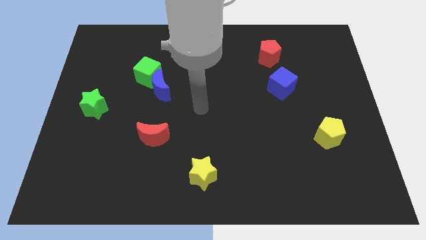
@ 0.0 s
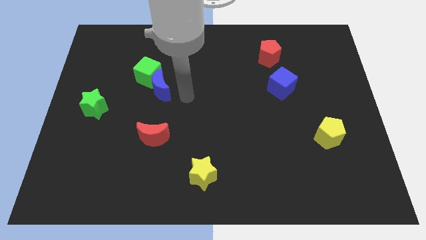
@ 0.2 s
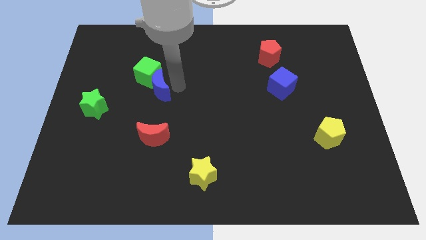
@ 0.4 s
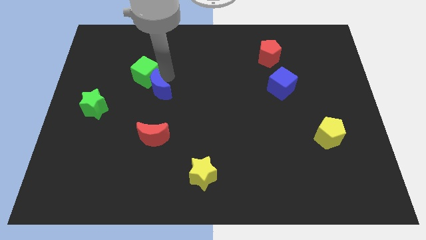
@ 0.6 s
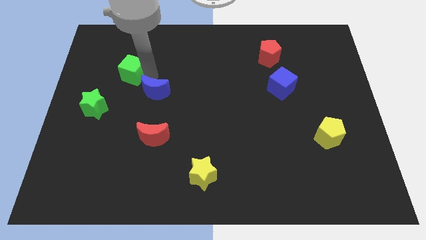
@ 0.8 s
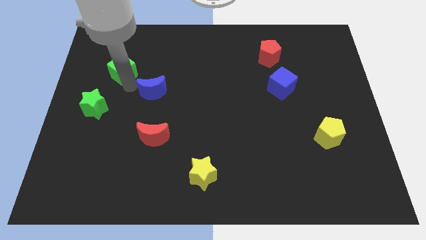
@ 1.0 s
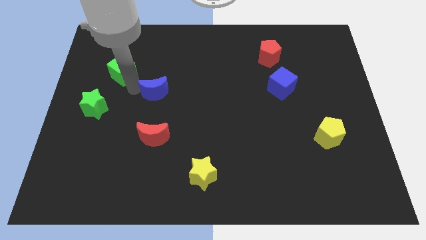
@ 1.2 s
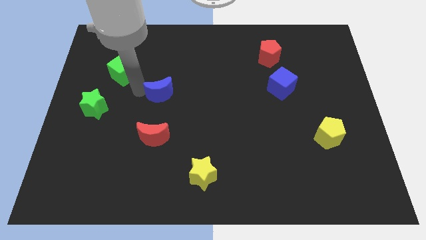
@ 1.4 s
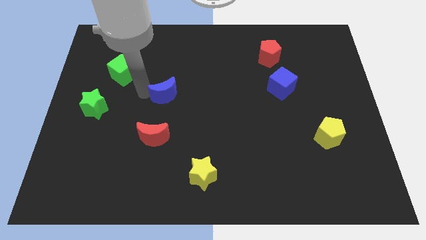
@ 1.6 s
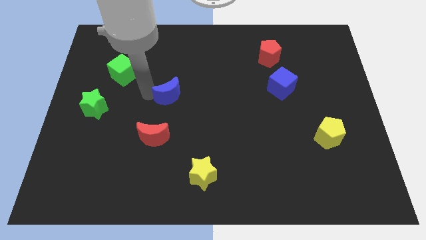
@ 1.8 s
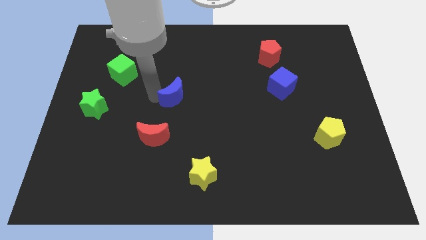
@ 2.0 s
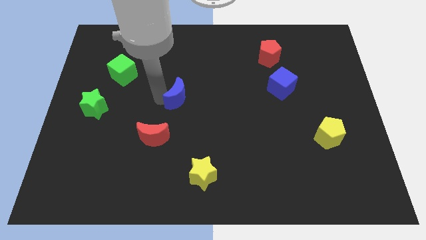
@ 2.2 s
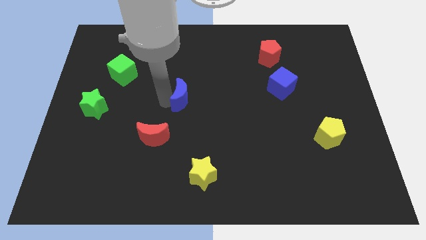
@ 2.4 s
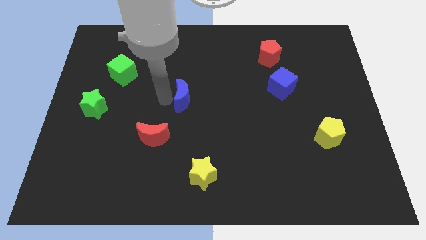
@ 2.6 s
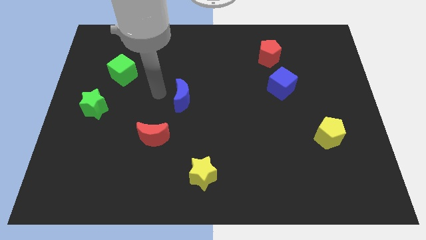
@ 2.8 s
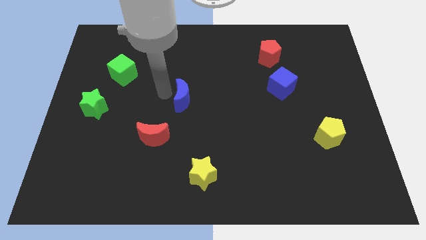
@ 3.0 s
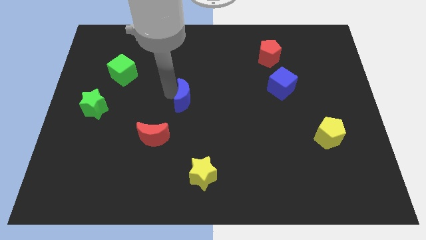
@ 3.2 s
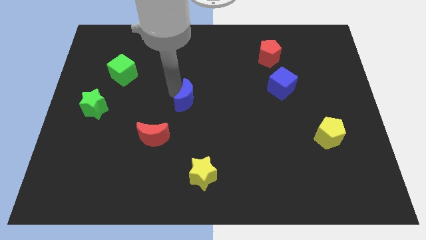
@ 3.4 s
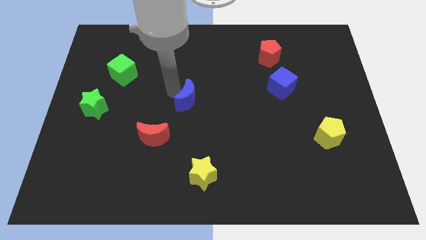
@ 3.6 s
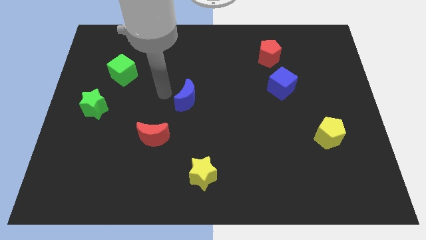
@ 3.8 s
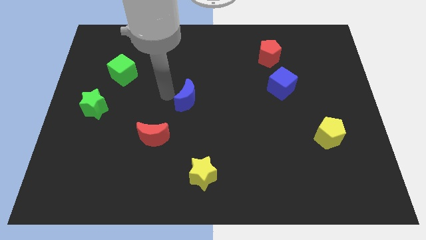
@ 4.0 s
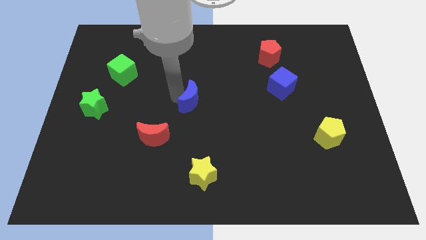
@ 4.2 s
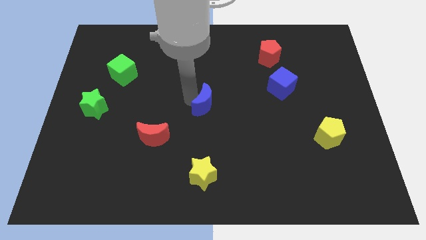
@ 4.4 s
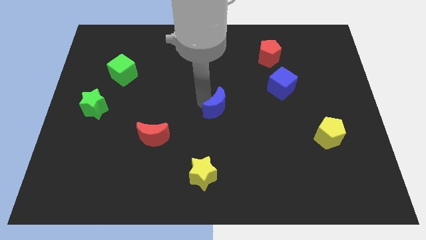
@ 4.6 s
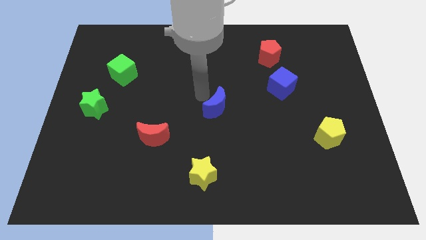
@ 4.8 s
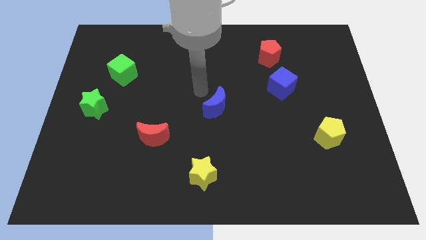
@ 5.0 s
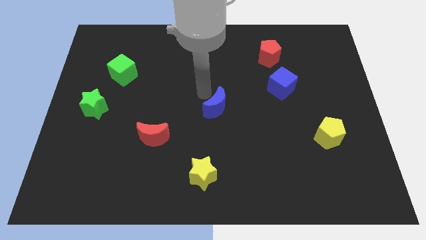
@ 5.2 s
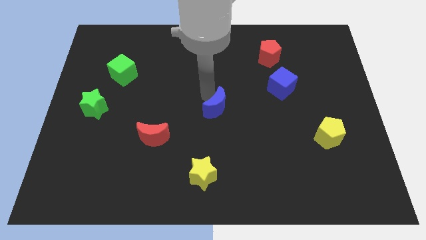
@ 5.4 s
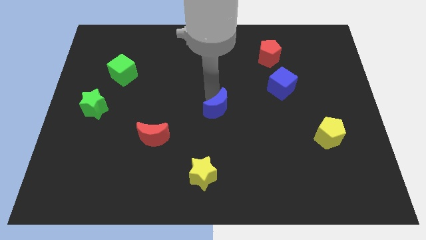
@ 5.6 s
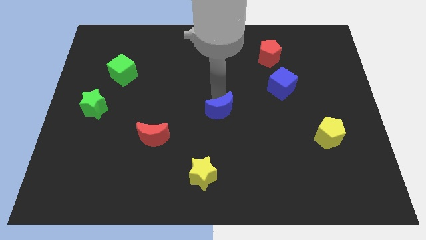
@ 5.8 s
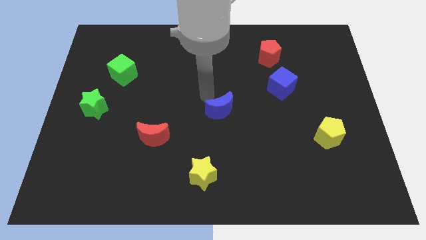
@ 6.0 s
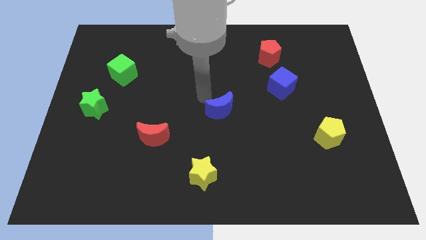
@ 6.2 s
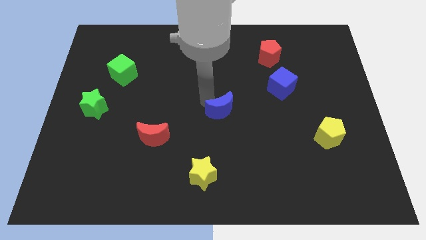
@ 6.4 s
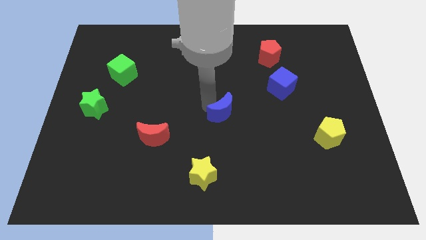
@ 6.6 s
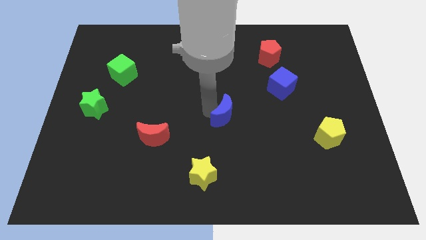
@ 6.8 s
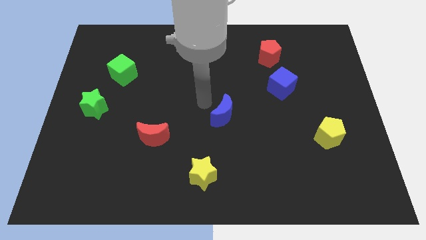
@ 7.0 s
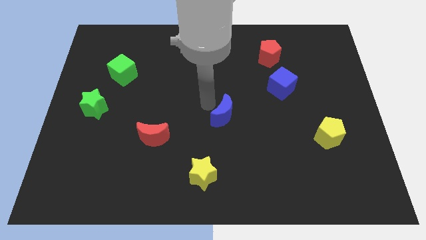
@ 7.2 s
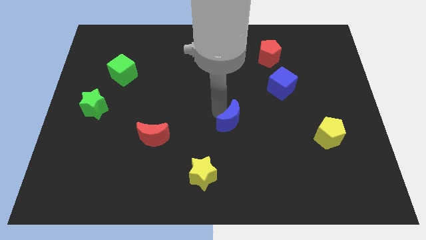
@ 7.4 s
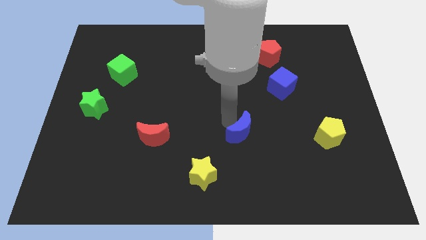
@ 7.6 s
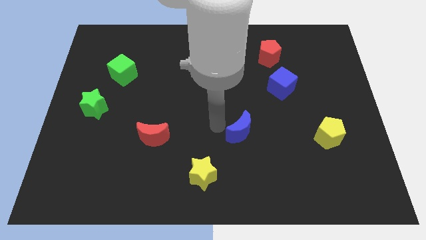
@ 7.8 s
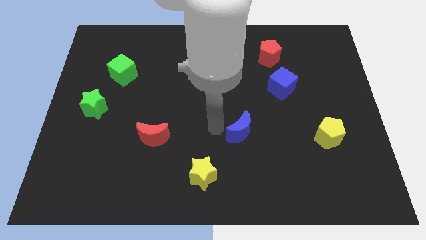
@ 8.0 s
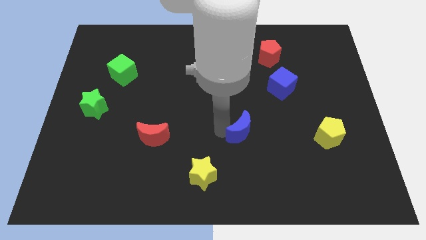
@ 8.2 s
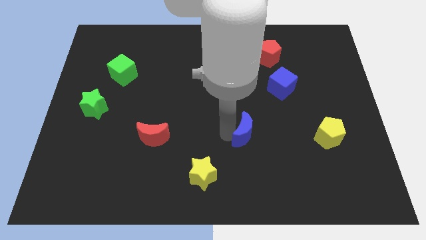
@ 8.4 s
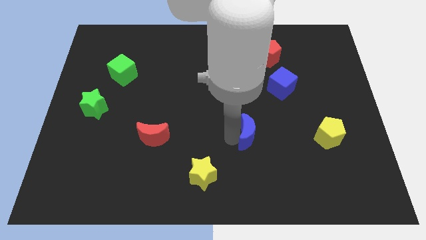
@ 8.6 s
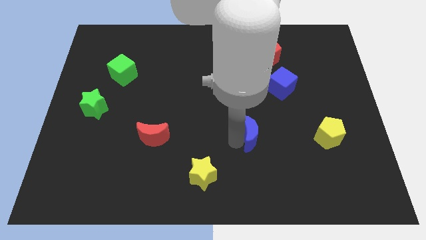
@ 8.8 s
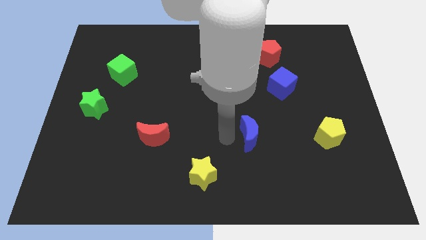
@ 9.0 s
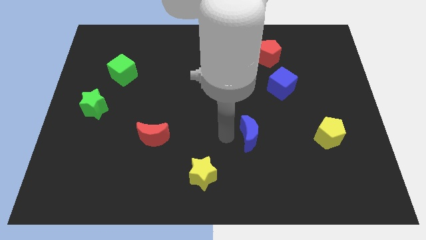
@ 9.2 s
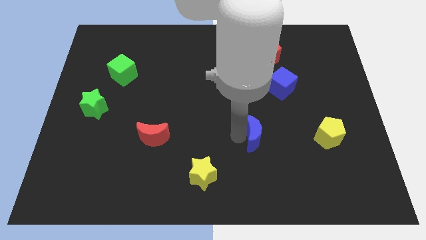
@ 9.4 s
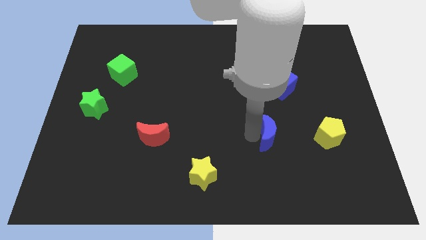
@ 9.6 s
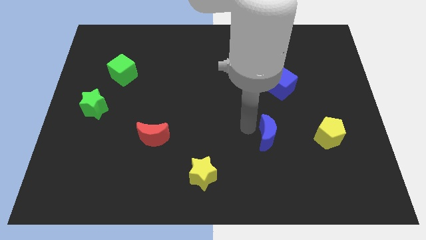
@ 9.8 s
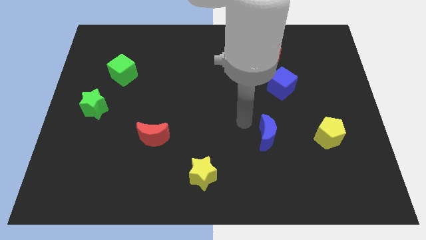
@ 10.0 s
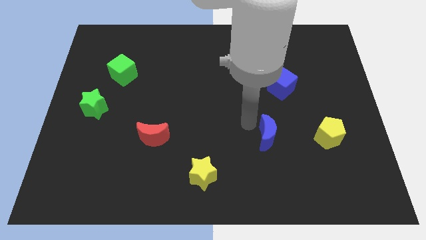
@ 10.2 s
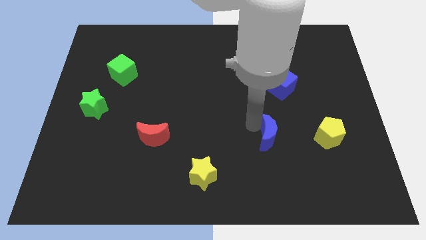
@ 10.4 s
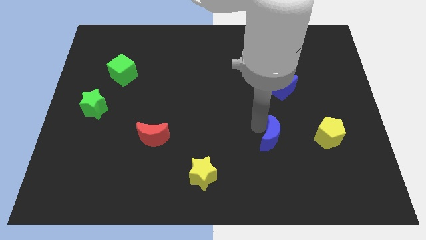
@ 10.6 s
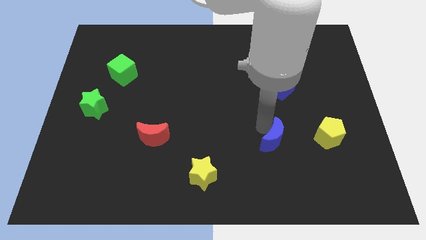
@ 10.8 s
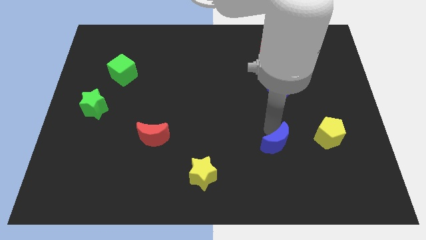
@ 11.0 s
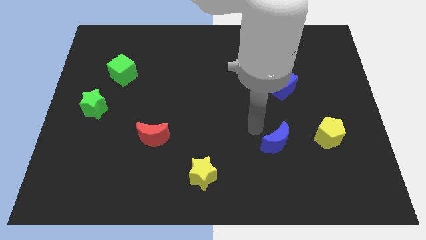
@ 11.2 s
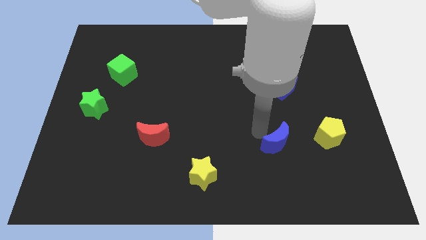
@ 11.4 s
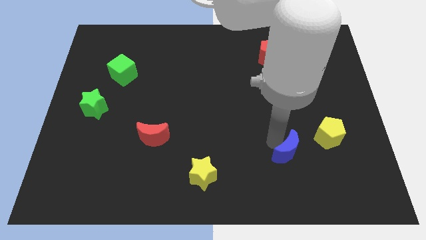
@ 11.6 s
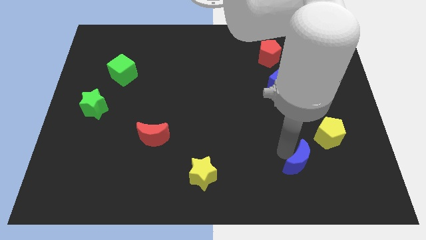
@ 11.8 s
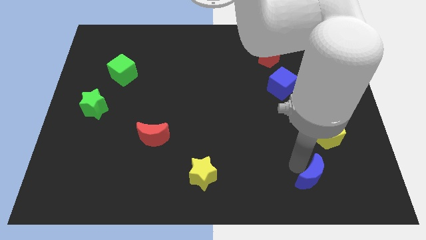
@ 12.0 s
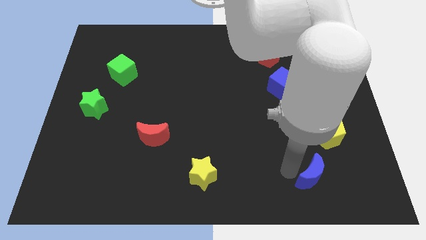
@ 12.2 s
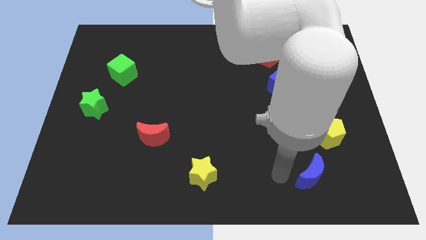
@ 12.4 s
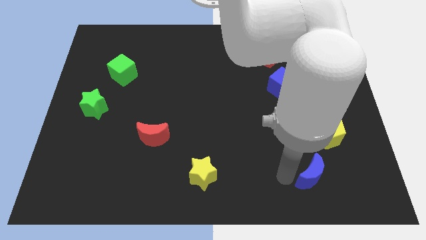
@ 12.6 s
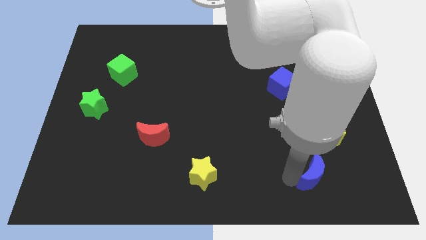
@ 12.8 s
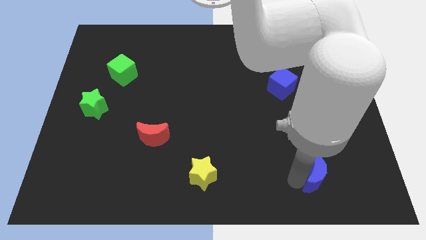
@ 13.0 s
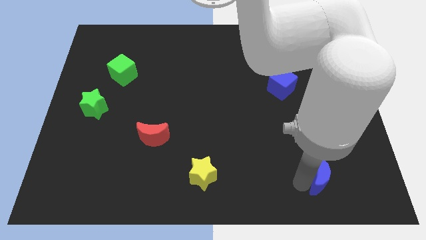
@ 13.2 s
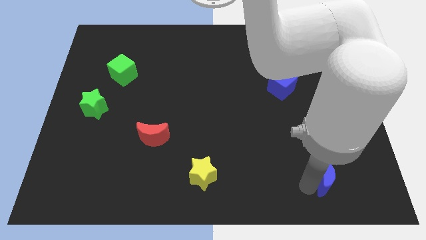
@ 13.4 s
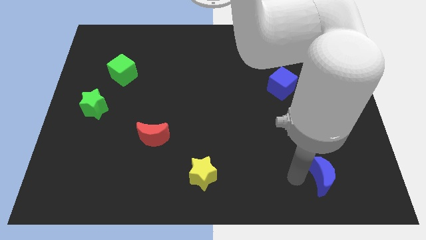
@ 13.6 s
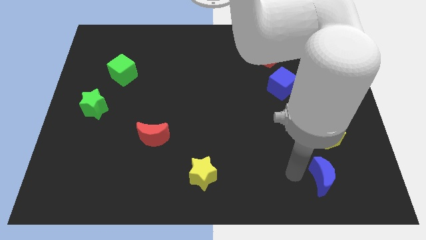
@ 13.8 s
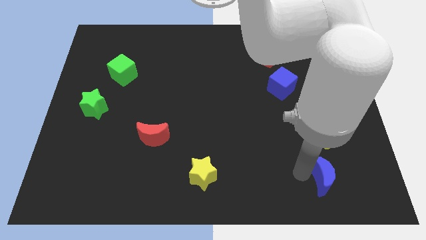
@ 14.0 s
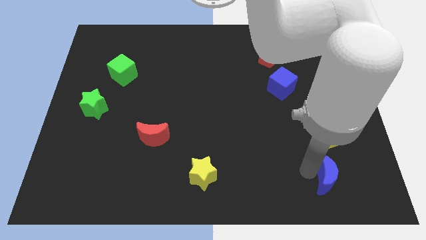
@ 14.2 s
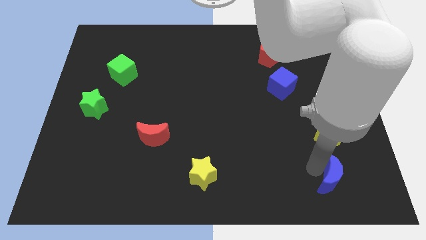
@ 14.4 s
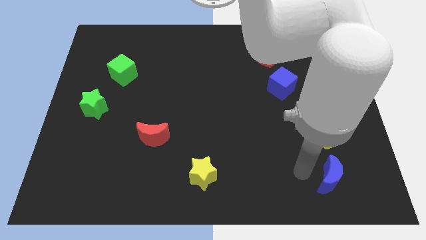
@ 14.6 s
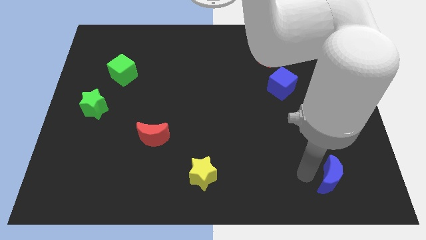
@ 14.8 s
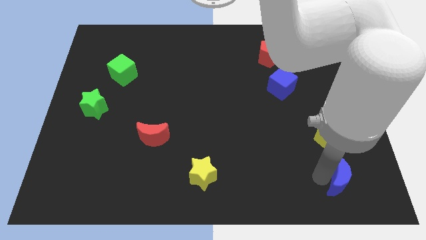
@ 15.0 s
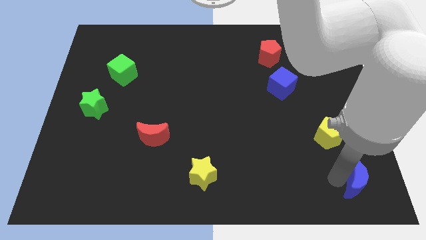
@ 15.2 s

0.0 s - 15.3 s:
put the blue moon to the lower right corner
